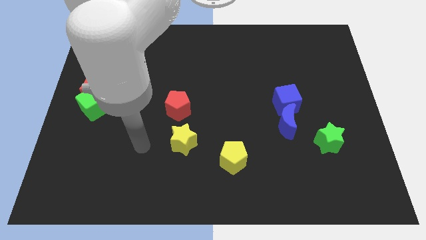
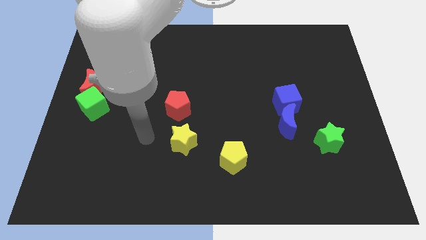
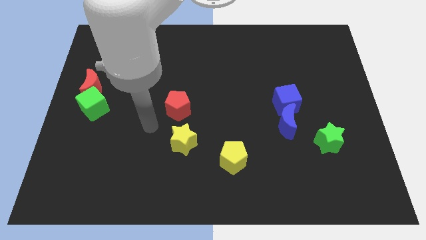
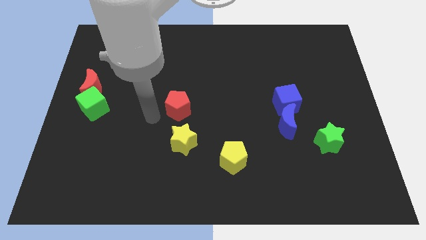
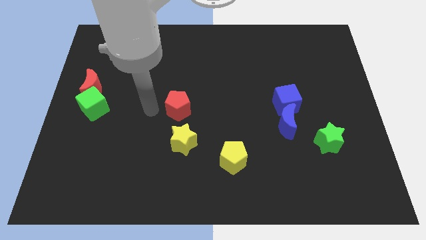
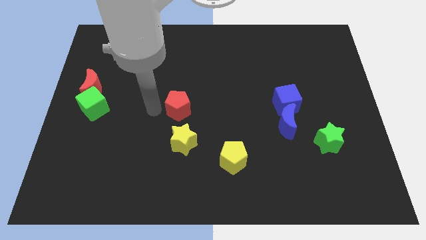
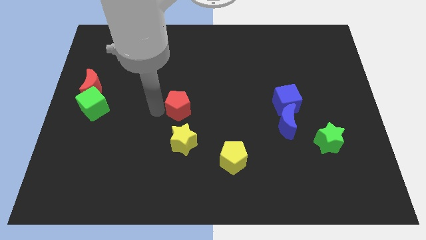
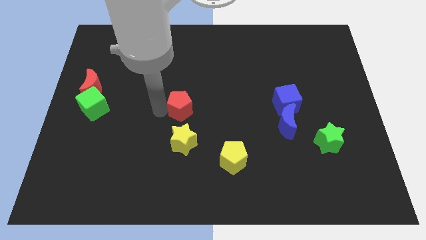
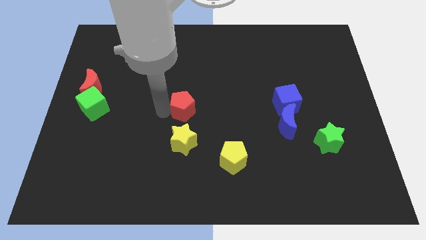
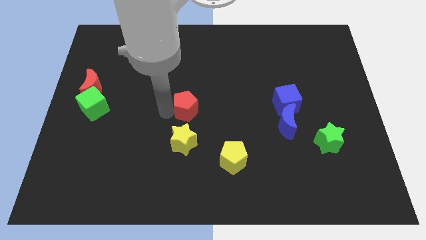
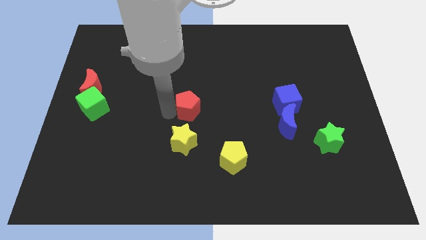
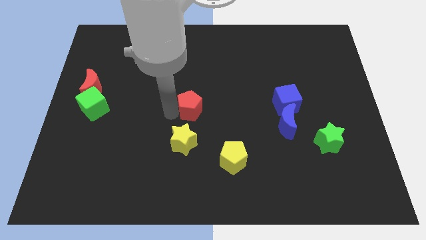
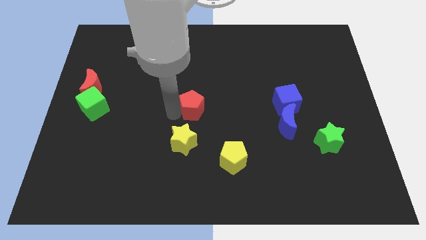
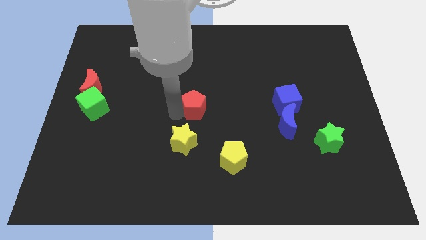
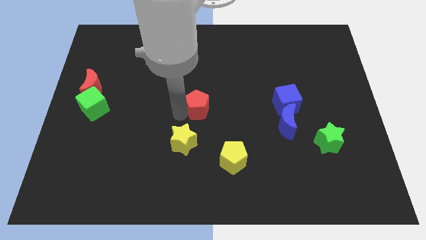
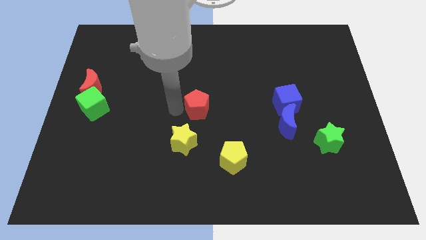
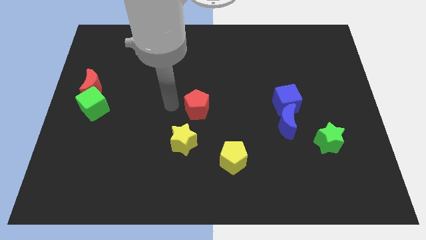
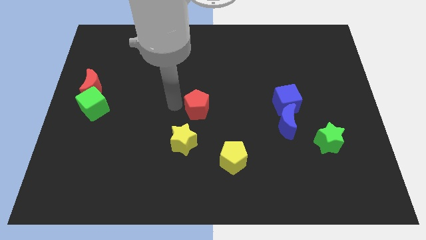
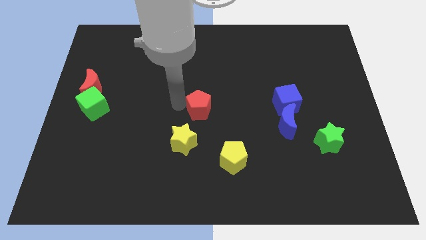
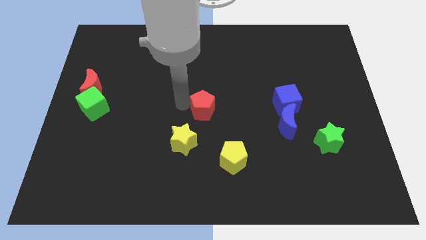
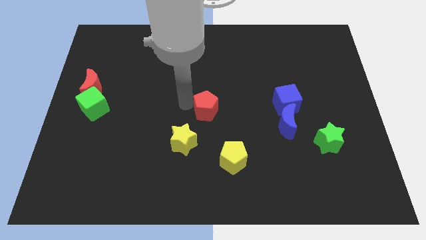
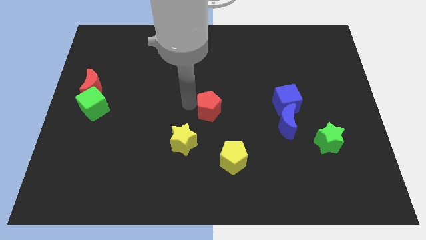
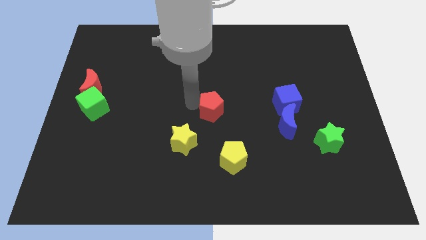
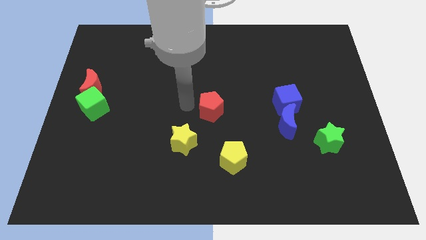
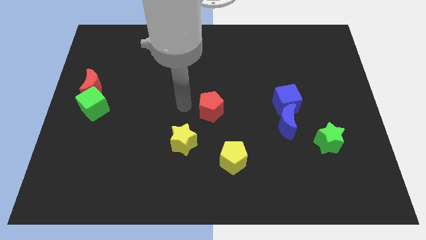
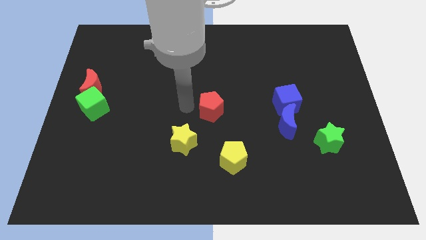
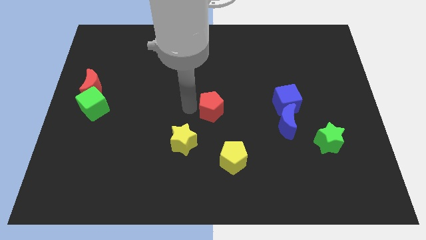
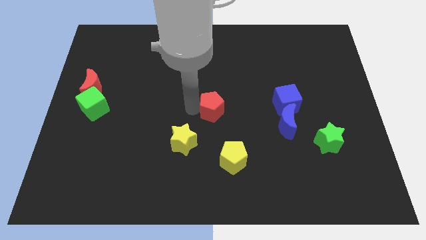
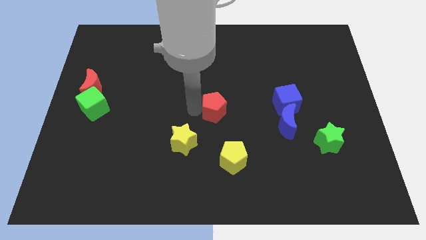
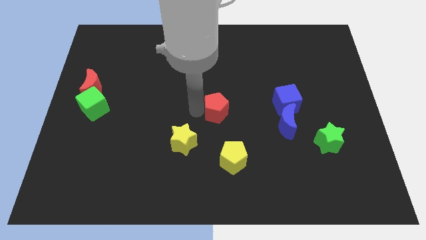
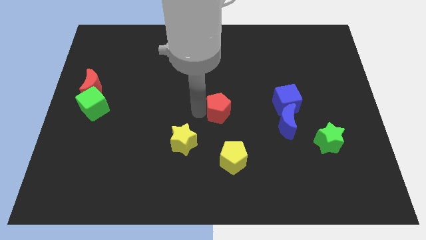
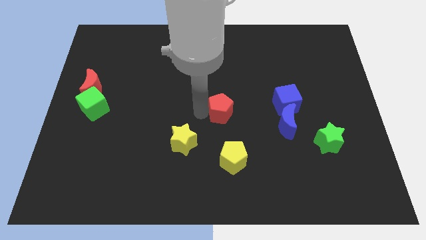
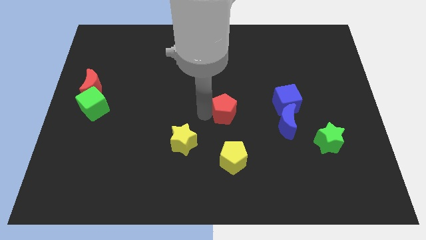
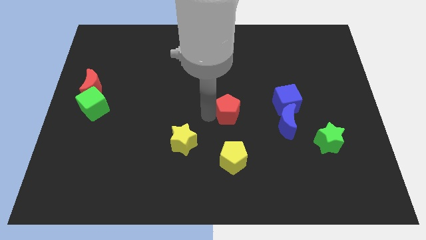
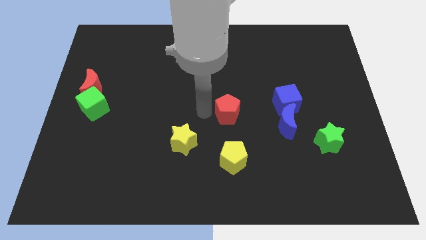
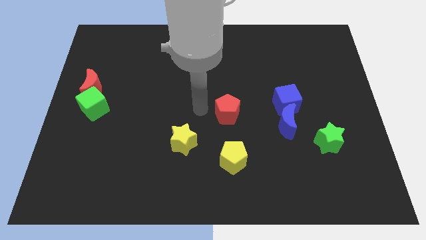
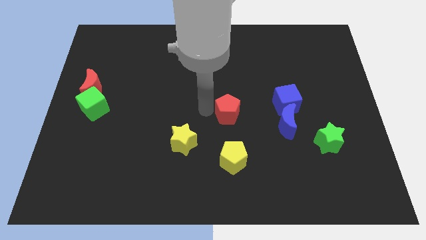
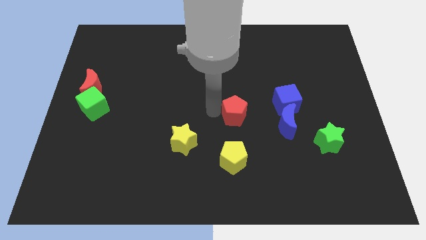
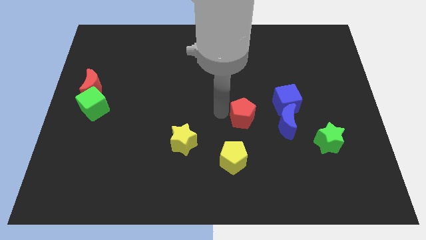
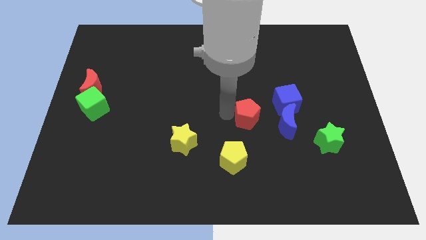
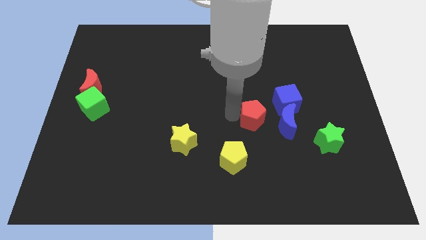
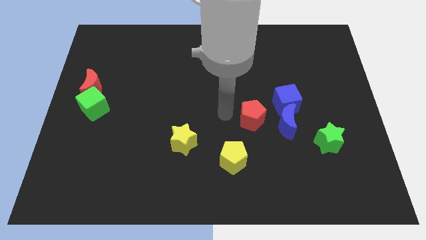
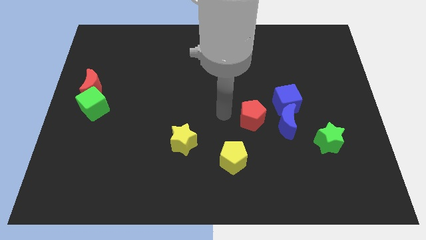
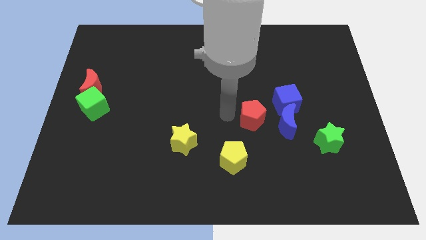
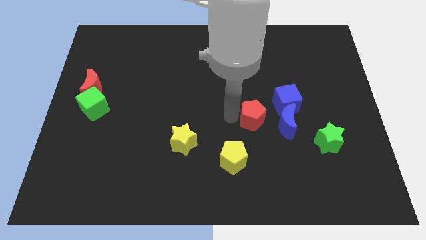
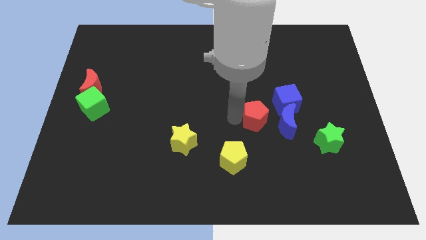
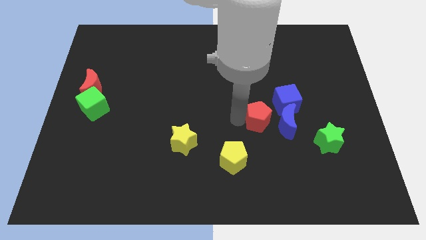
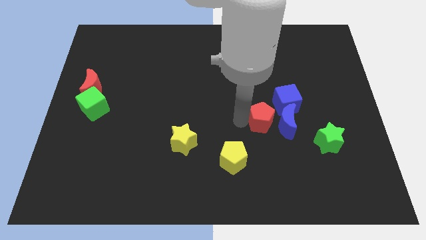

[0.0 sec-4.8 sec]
push the red pentagon next to the blue moon

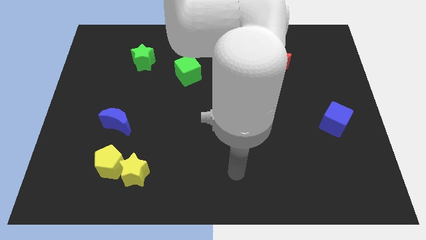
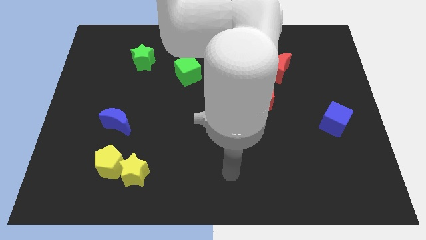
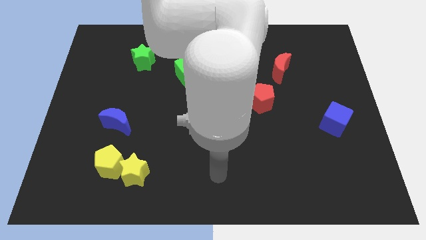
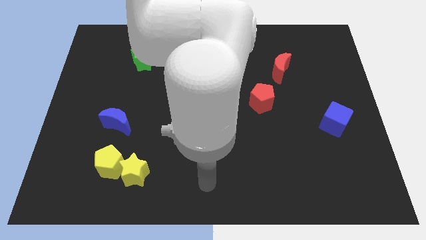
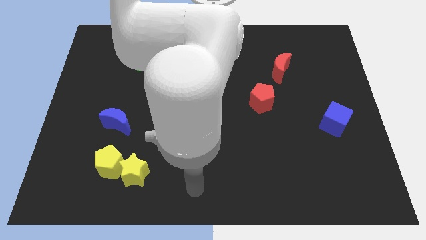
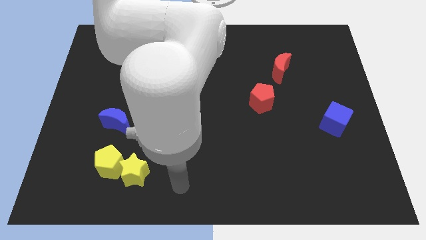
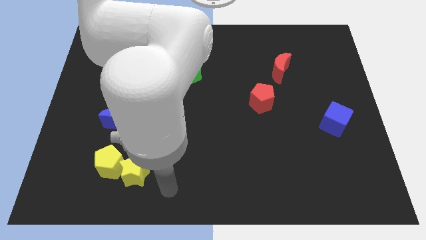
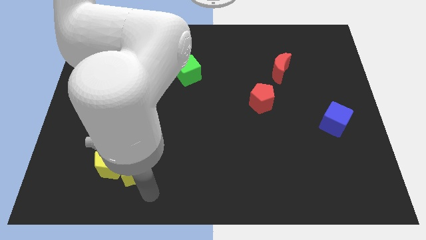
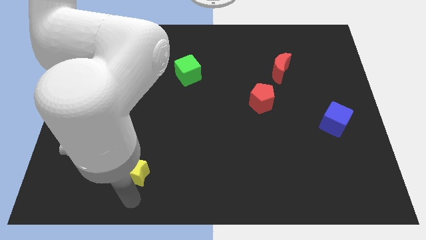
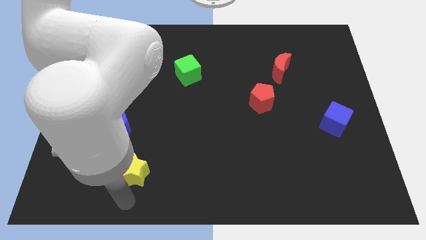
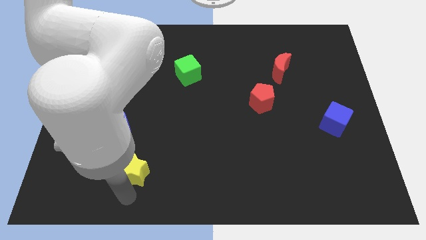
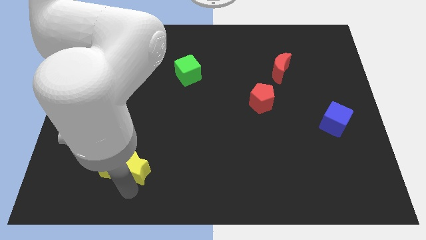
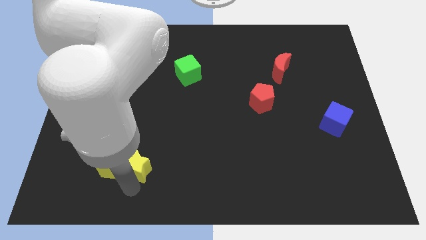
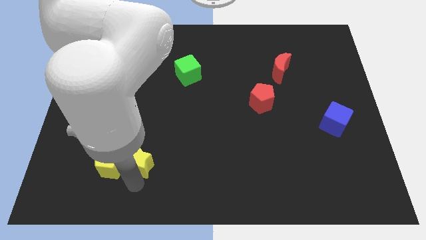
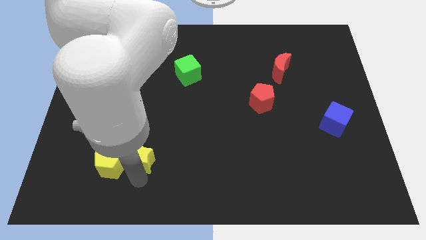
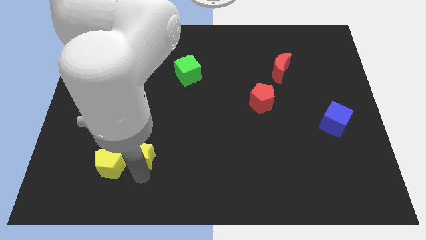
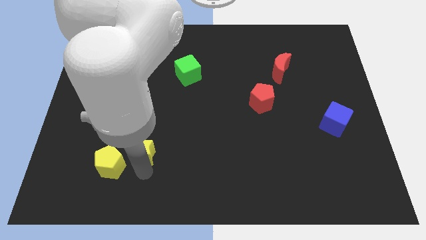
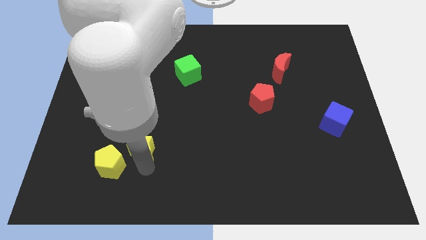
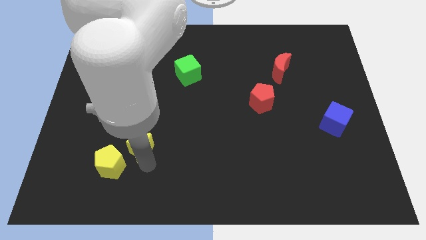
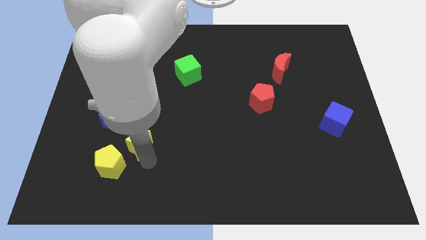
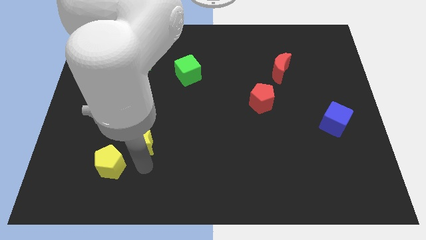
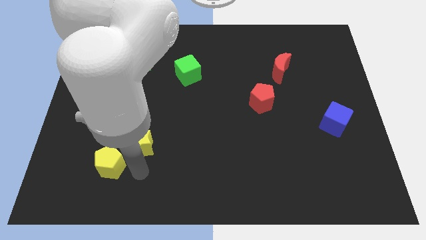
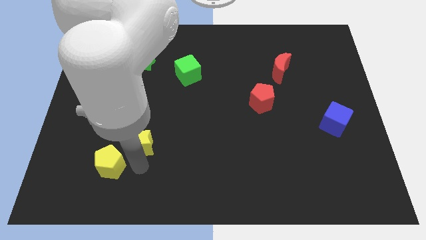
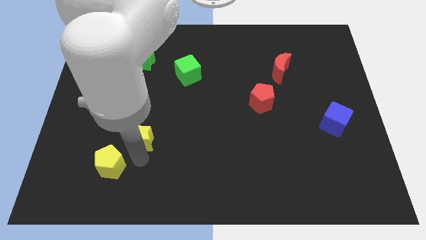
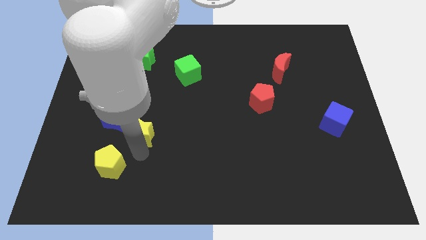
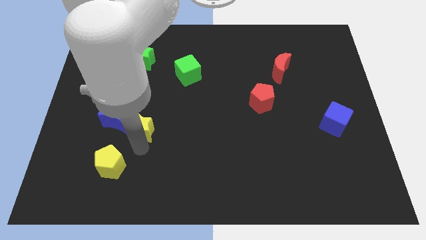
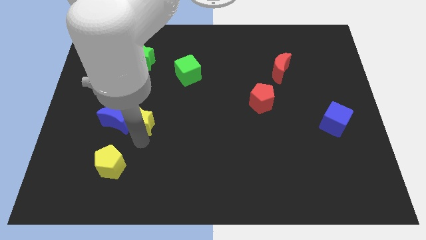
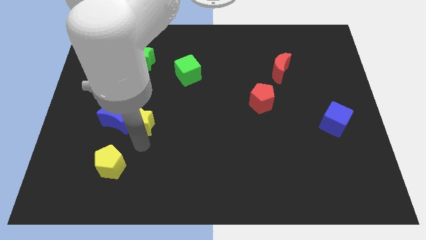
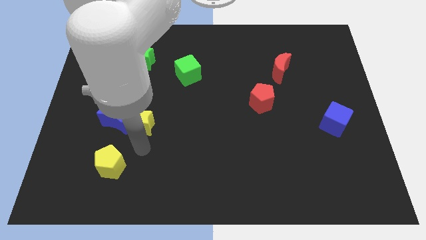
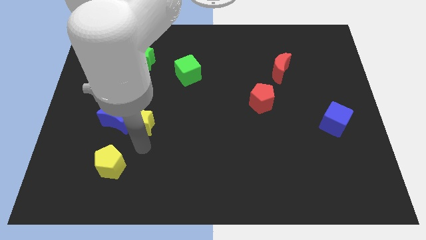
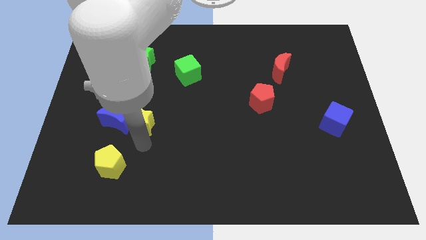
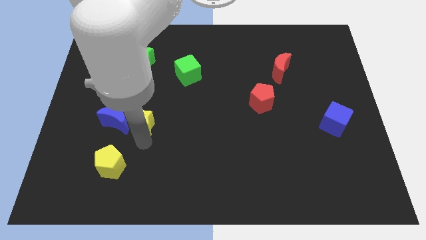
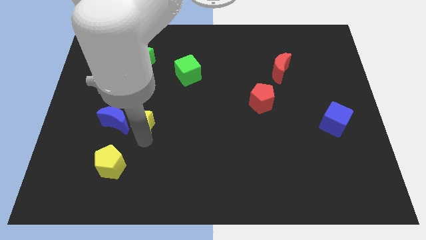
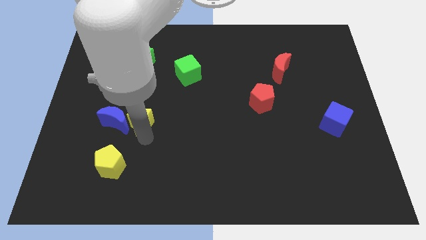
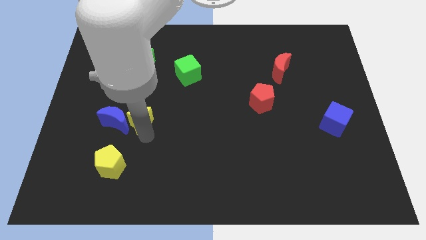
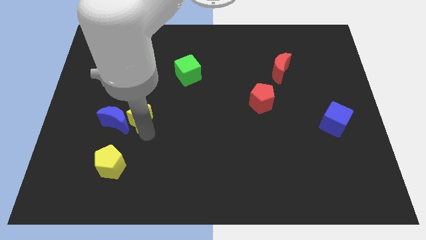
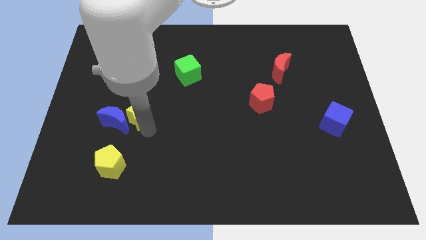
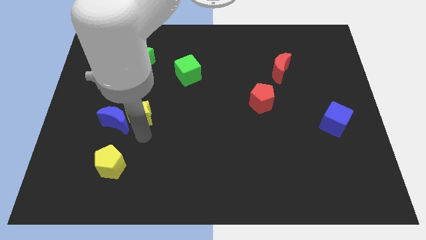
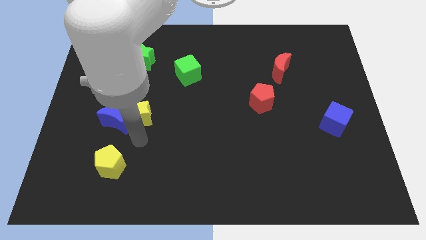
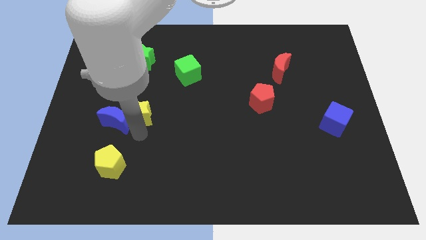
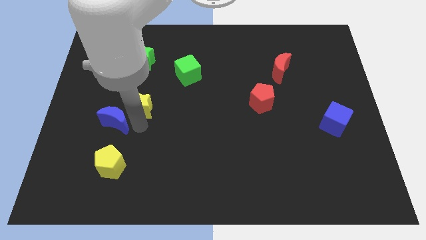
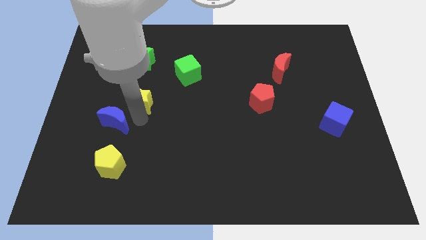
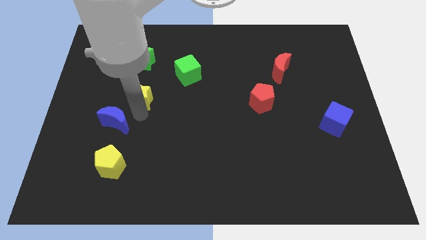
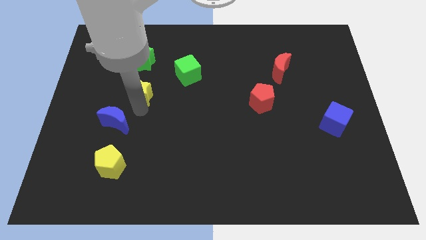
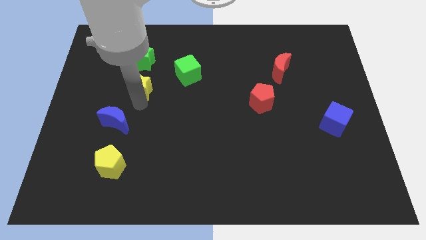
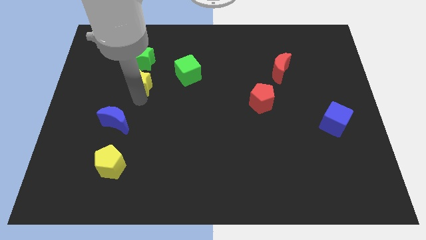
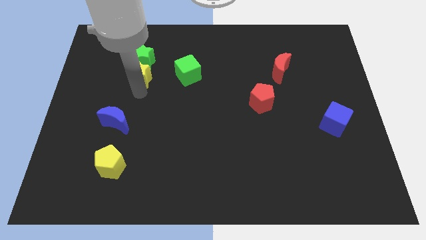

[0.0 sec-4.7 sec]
put the yellow star to the green star
